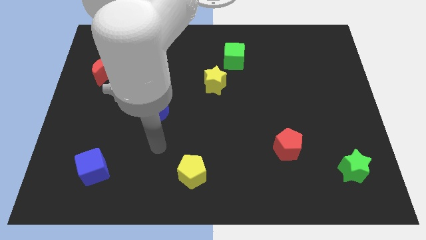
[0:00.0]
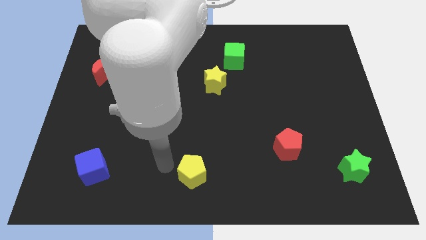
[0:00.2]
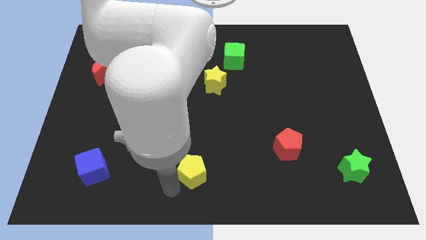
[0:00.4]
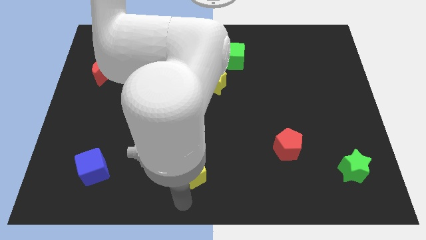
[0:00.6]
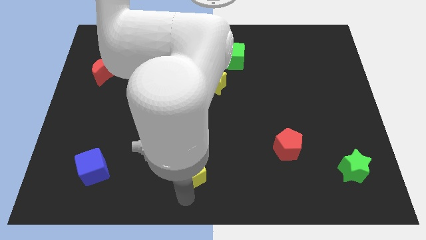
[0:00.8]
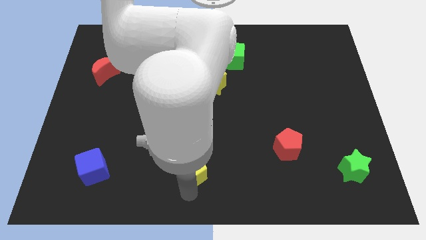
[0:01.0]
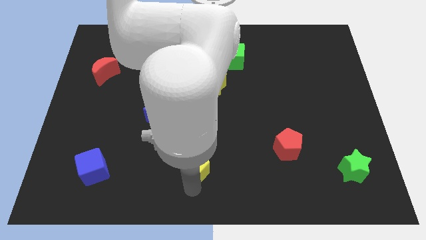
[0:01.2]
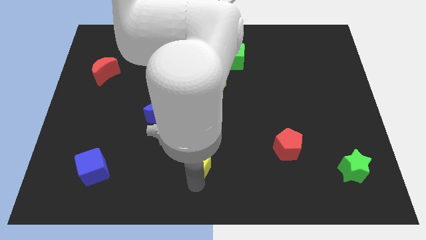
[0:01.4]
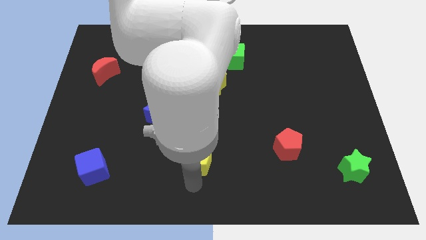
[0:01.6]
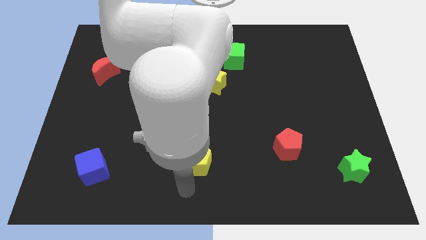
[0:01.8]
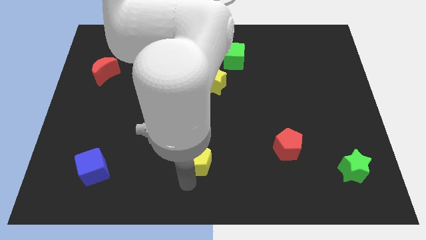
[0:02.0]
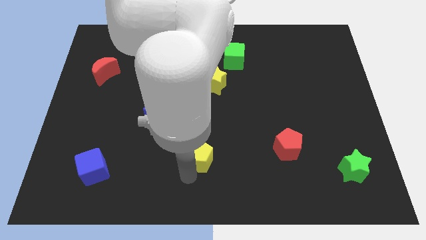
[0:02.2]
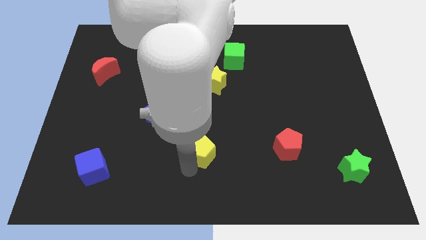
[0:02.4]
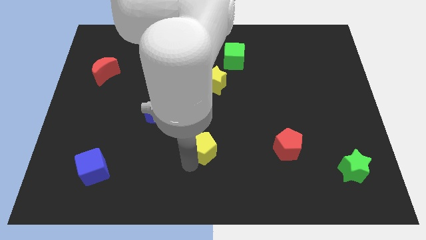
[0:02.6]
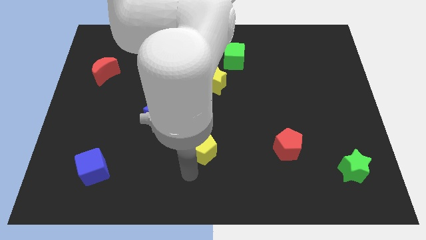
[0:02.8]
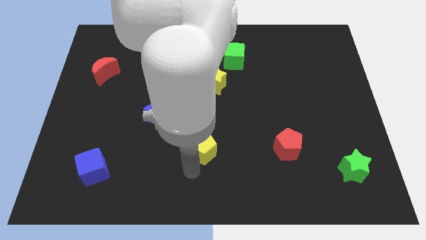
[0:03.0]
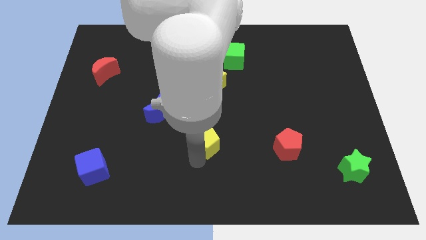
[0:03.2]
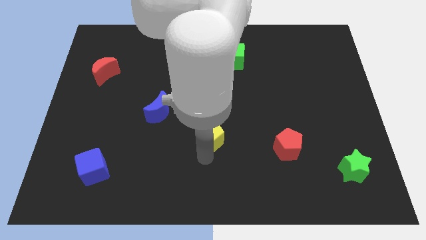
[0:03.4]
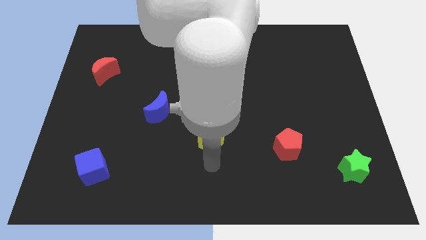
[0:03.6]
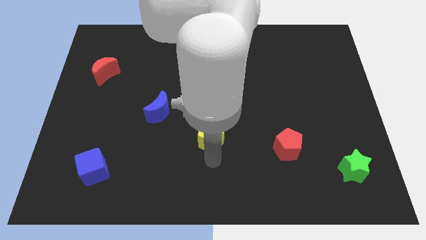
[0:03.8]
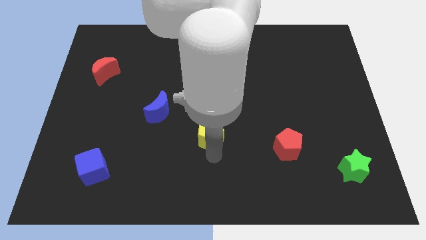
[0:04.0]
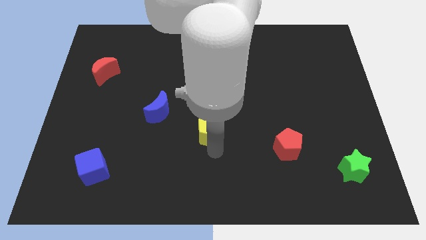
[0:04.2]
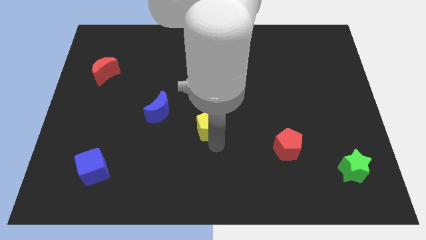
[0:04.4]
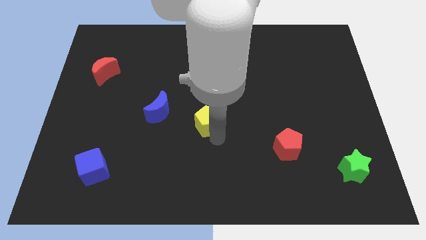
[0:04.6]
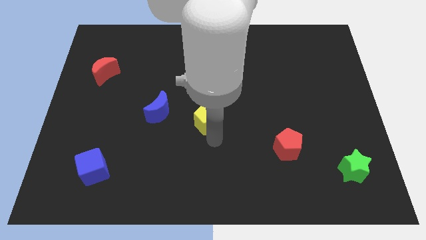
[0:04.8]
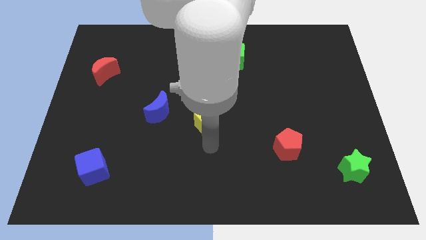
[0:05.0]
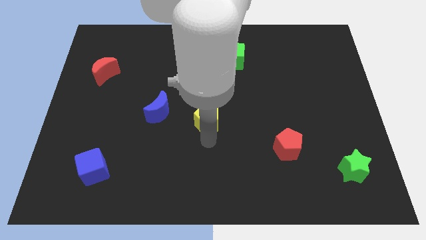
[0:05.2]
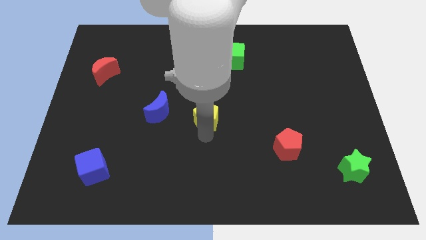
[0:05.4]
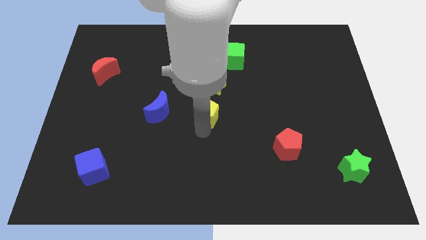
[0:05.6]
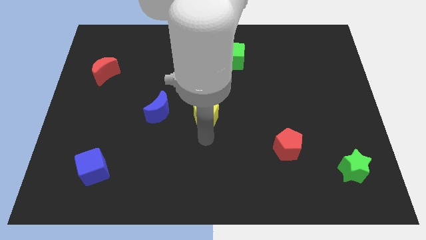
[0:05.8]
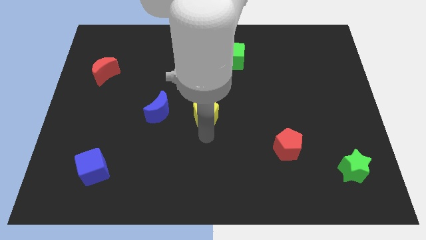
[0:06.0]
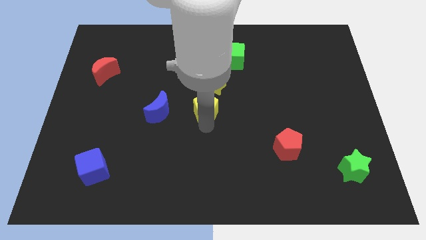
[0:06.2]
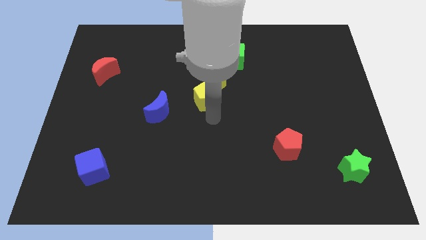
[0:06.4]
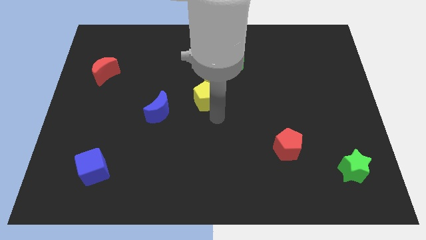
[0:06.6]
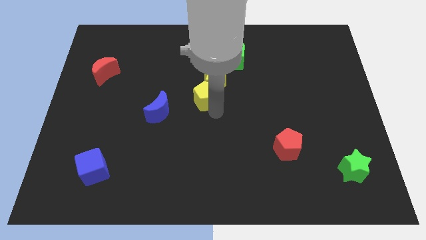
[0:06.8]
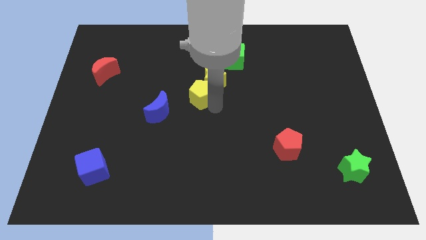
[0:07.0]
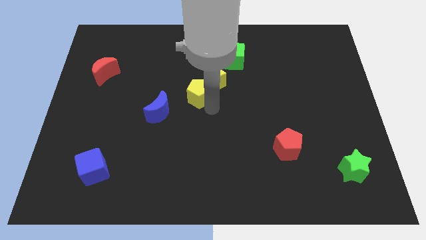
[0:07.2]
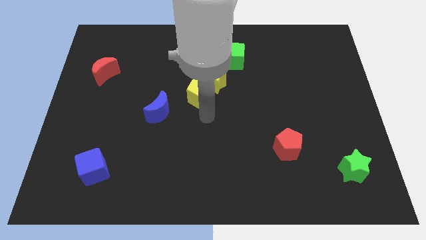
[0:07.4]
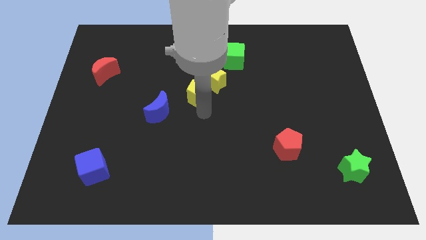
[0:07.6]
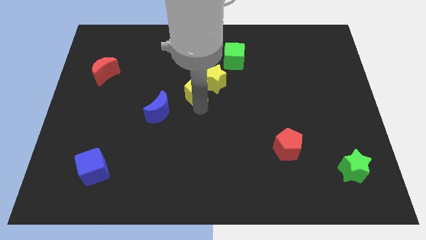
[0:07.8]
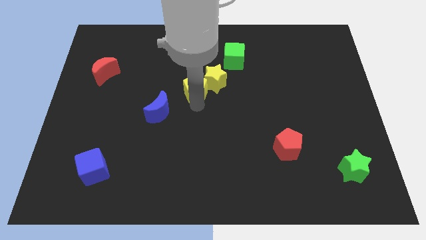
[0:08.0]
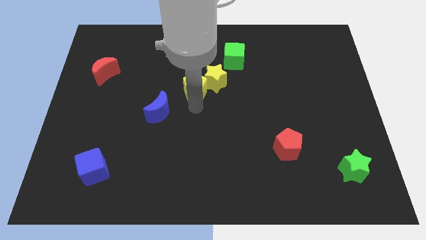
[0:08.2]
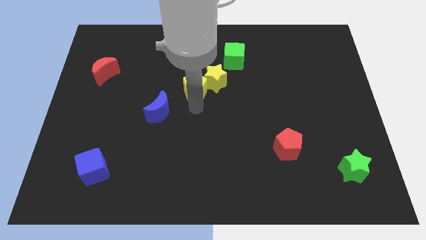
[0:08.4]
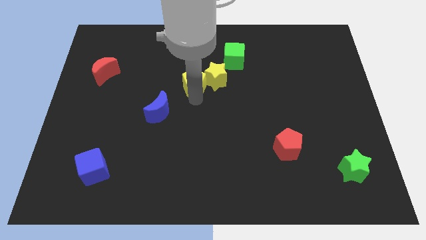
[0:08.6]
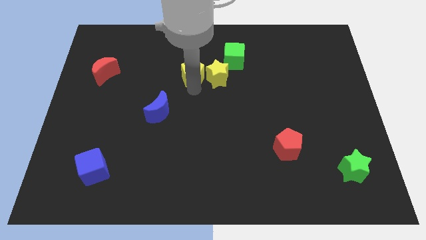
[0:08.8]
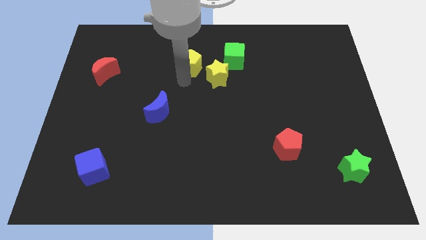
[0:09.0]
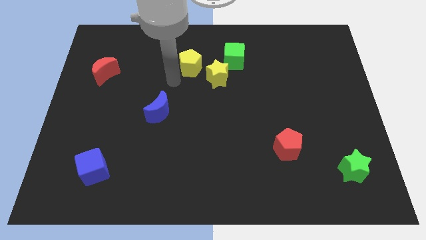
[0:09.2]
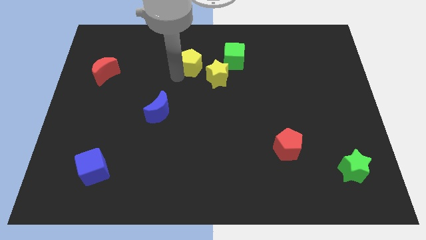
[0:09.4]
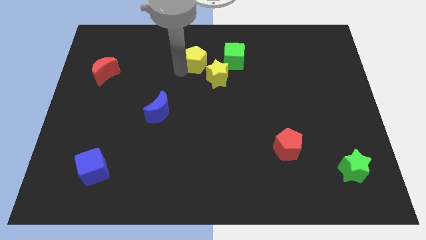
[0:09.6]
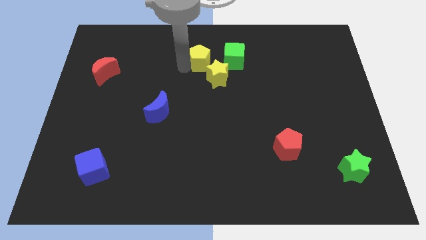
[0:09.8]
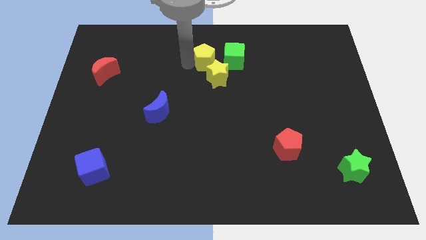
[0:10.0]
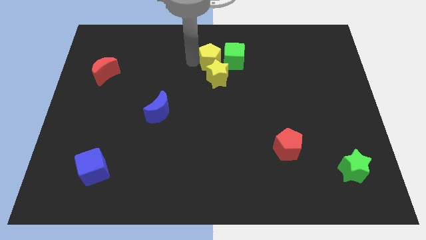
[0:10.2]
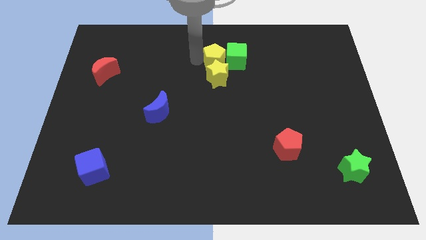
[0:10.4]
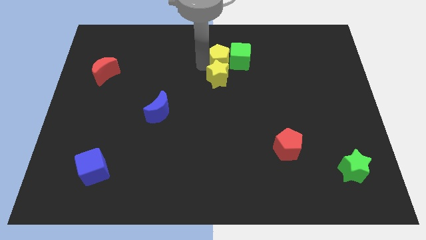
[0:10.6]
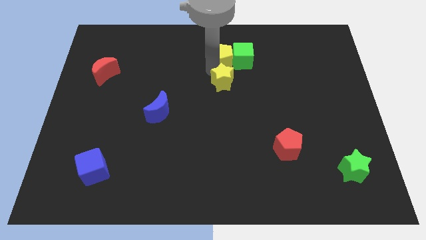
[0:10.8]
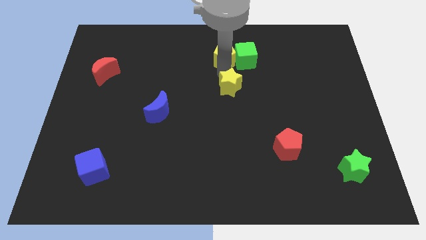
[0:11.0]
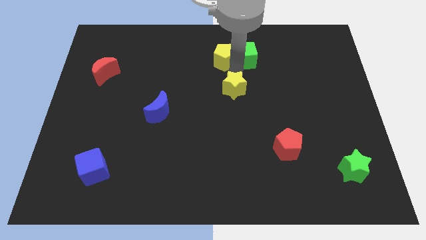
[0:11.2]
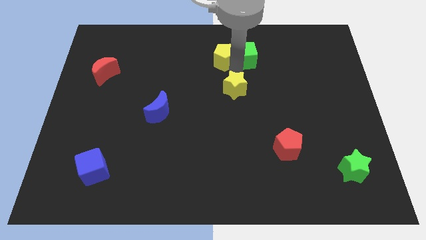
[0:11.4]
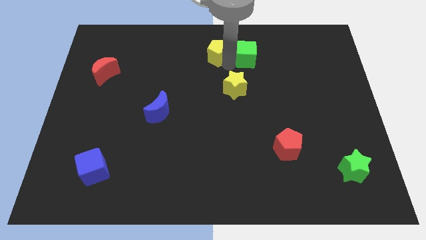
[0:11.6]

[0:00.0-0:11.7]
put the yellow pentagon to the towards your base

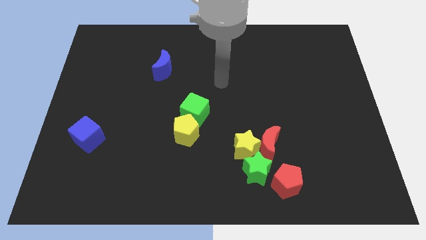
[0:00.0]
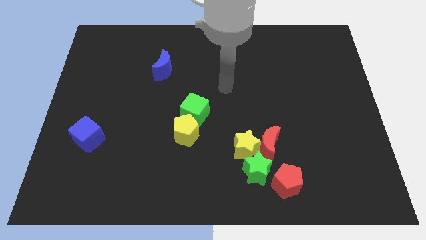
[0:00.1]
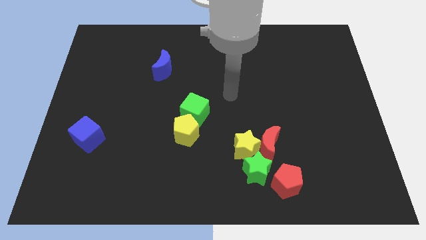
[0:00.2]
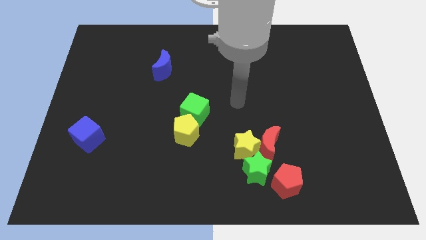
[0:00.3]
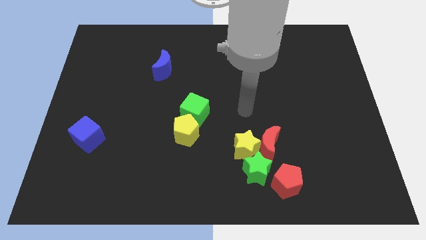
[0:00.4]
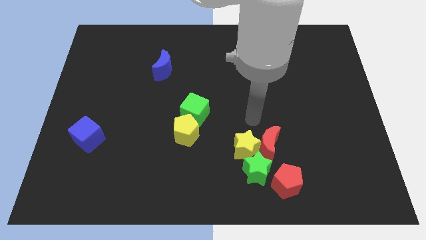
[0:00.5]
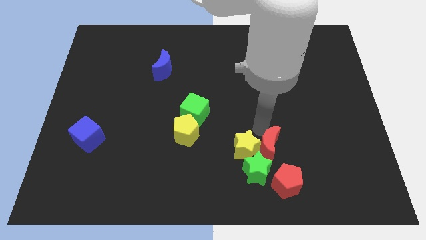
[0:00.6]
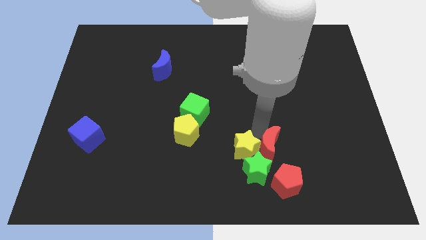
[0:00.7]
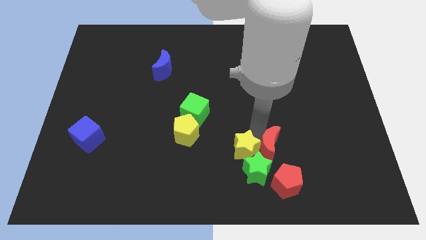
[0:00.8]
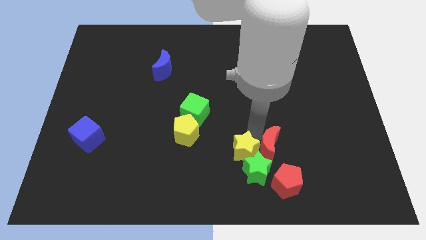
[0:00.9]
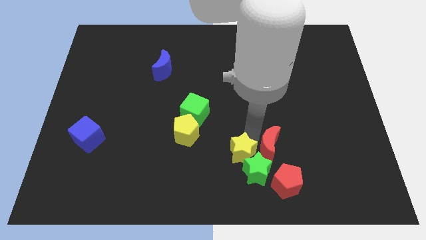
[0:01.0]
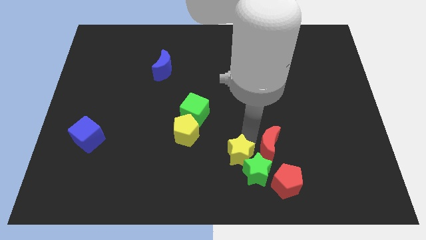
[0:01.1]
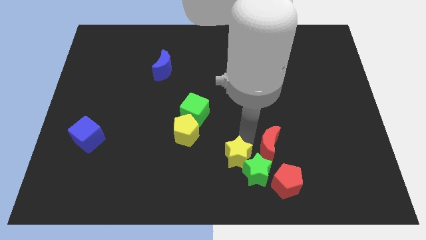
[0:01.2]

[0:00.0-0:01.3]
move the yellow star to the bottom
